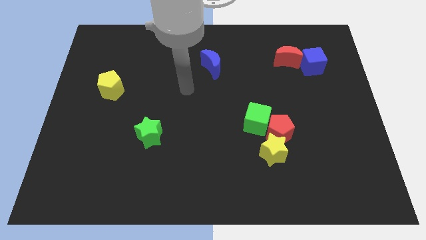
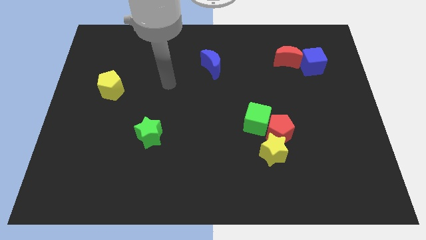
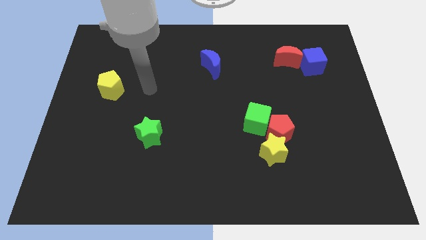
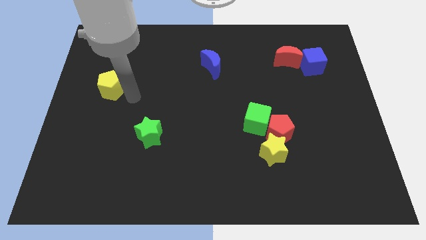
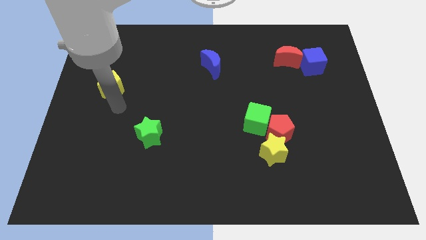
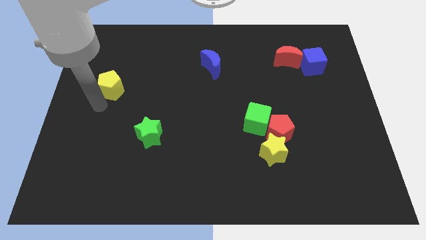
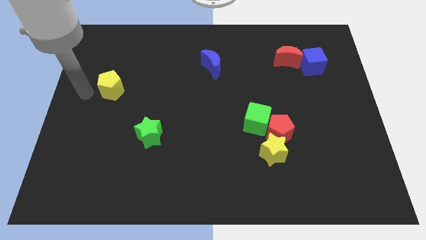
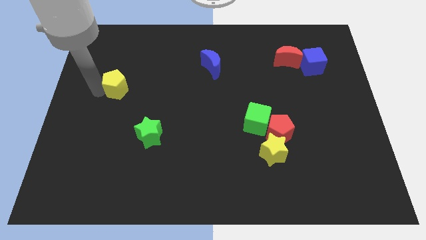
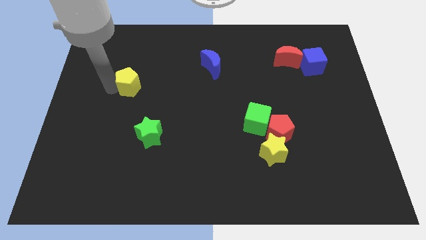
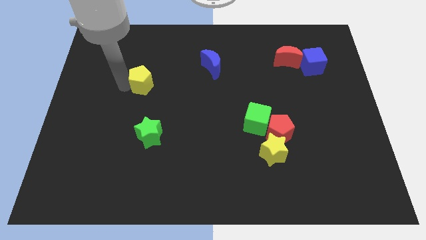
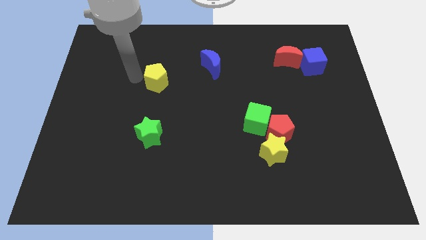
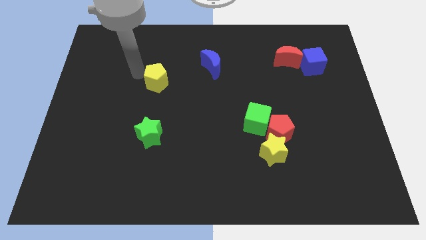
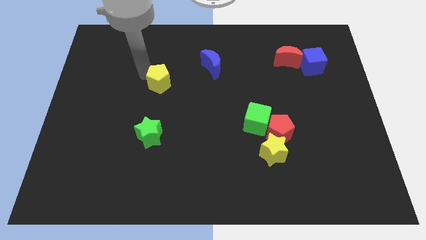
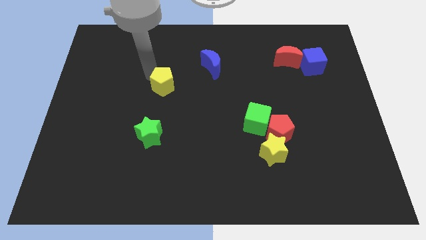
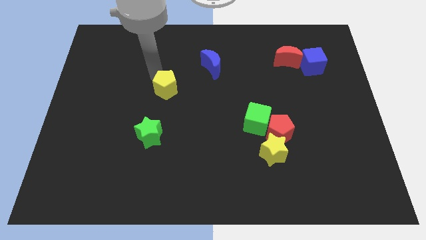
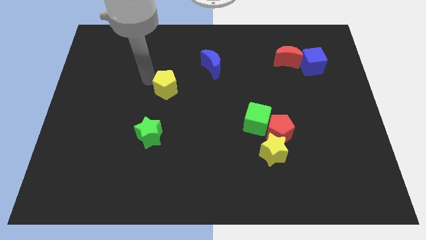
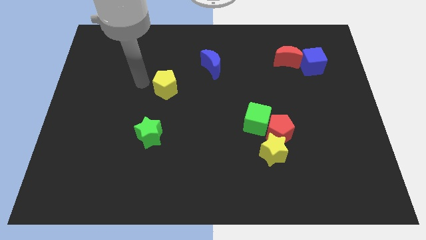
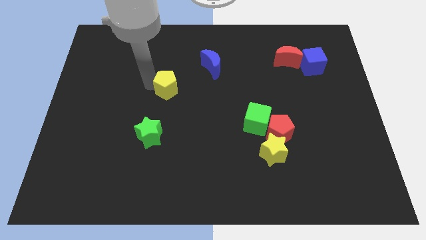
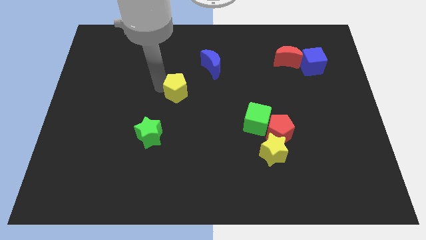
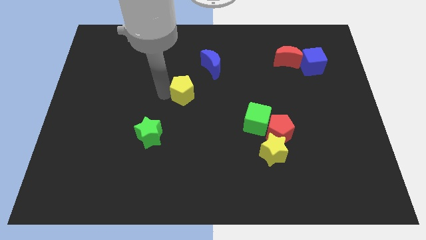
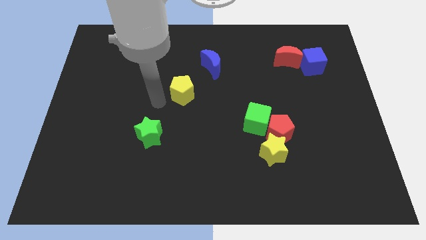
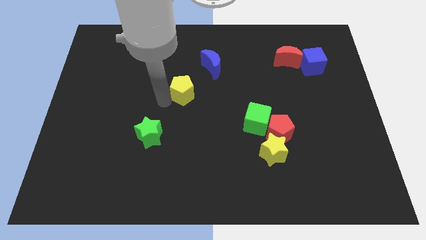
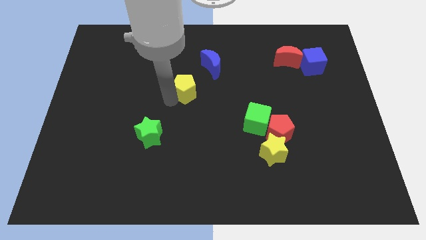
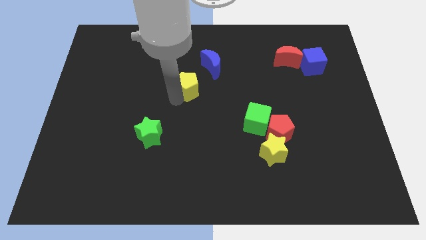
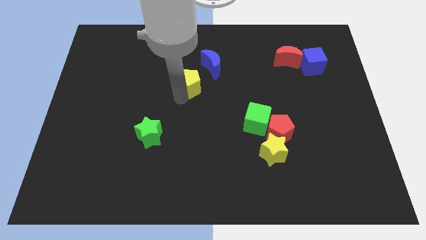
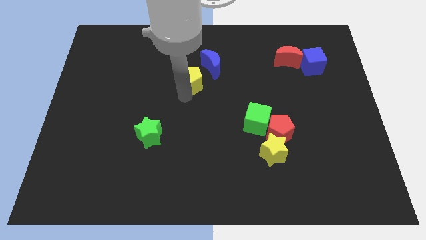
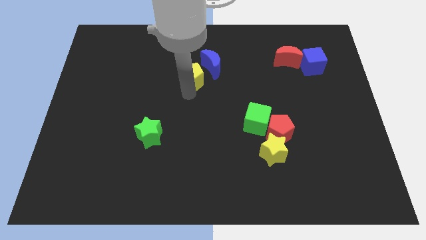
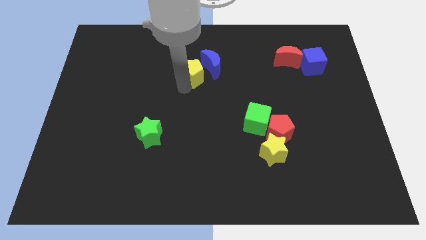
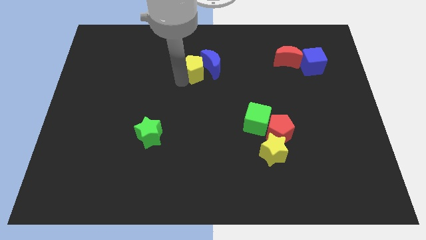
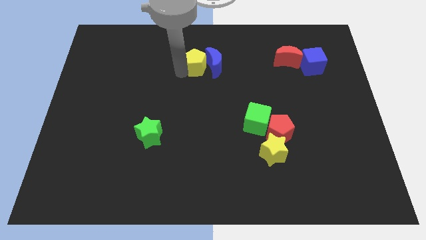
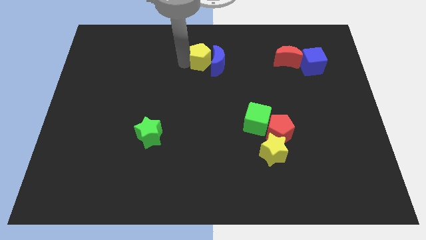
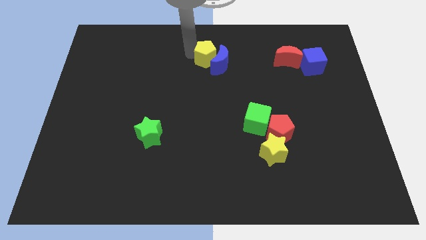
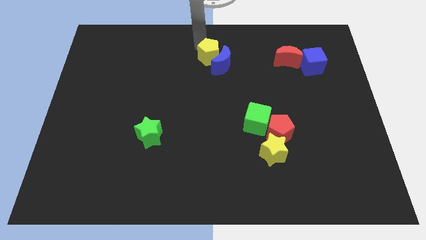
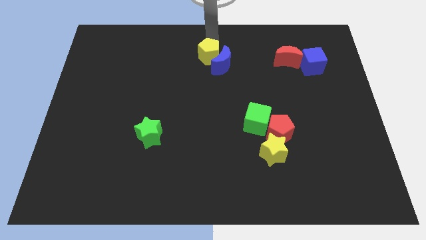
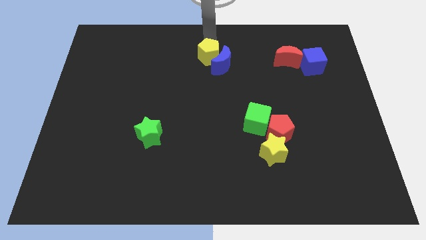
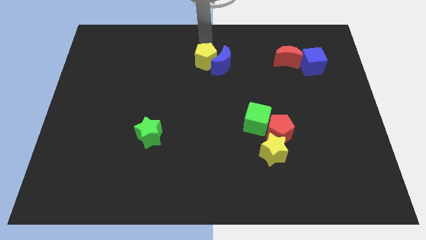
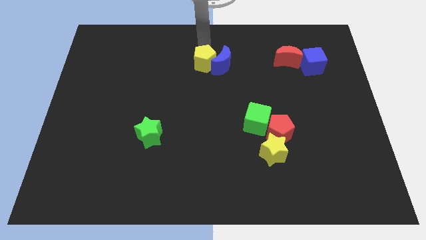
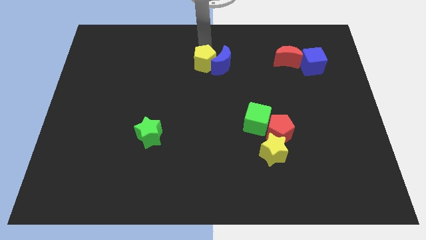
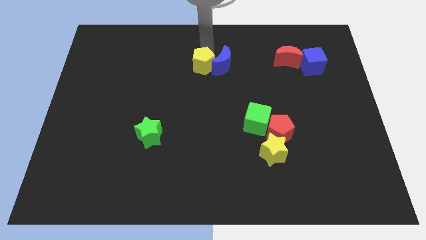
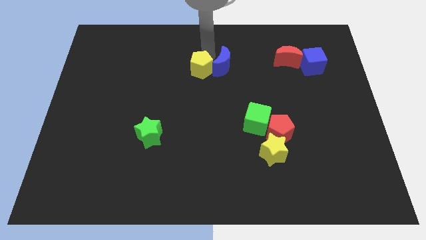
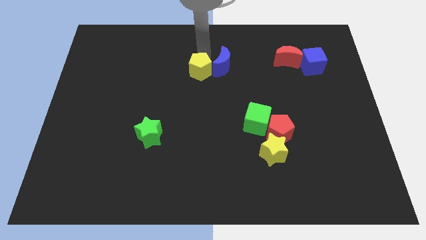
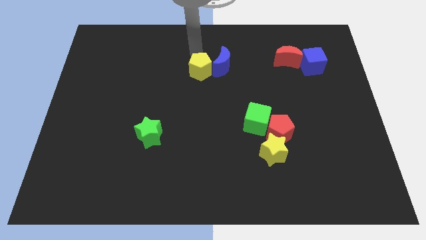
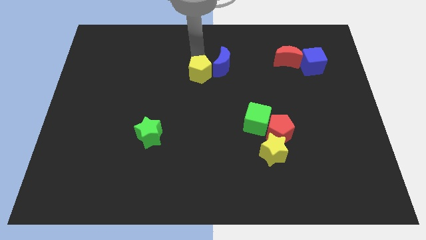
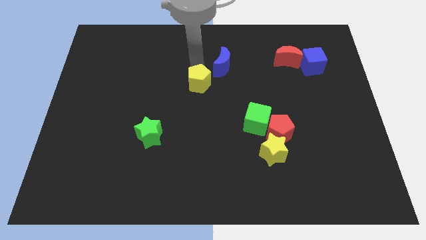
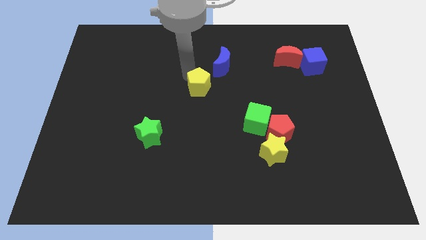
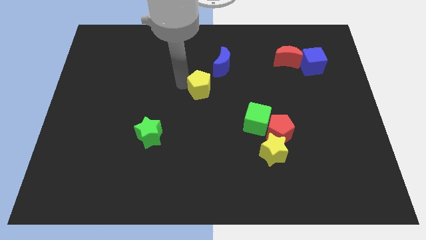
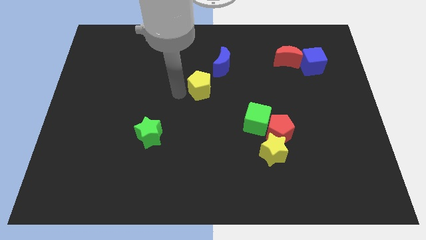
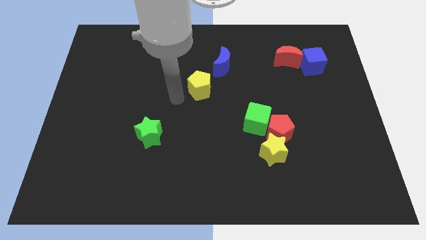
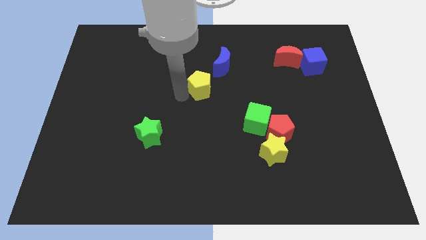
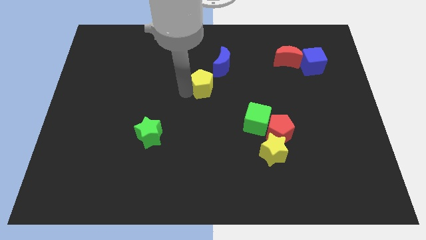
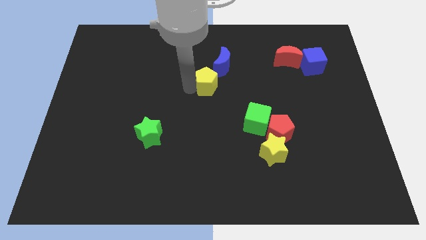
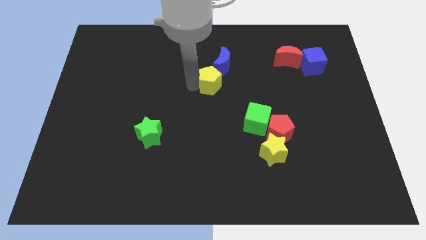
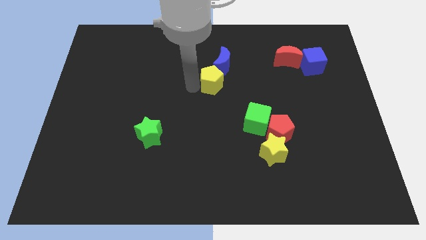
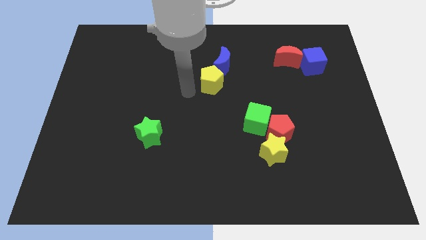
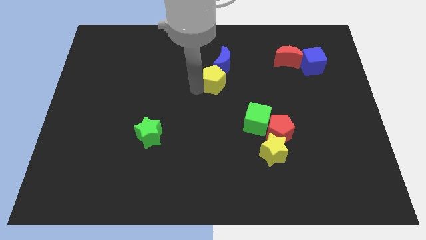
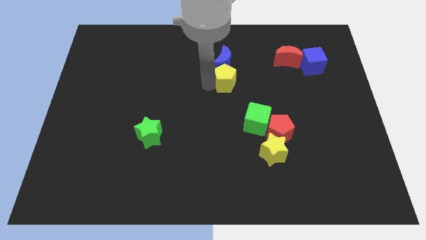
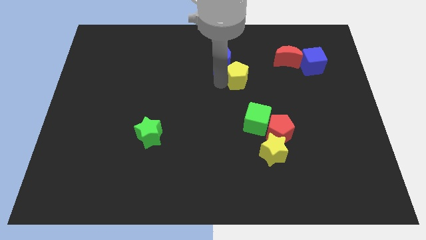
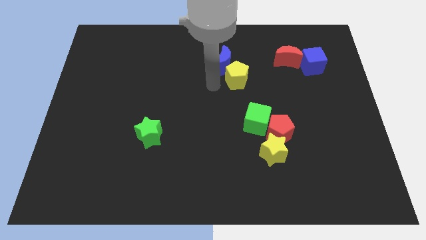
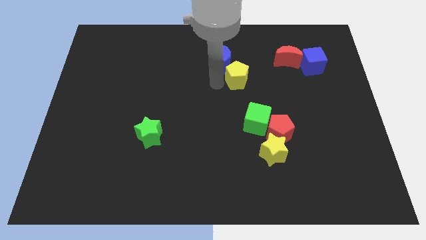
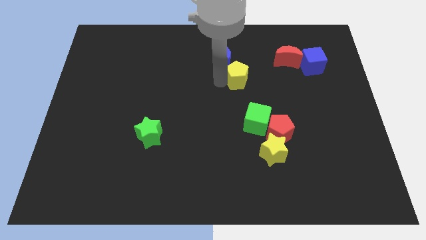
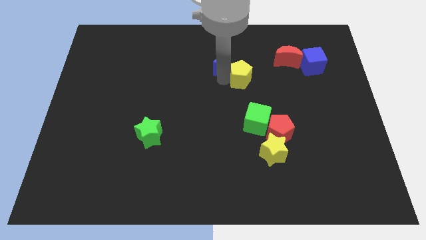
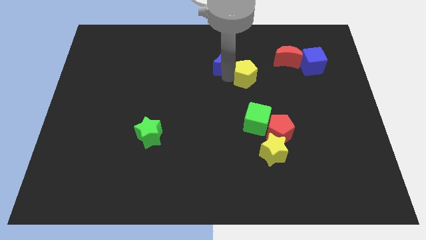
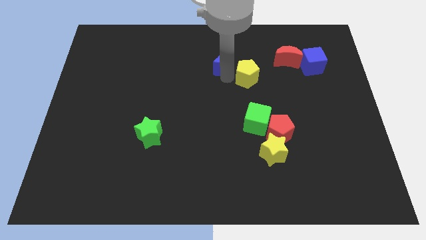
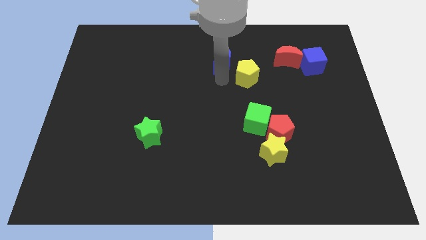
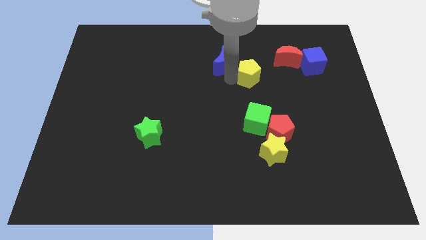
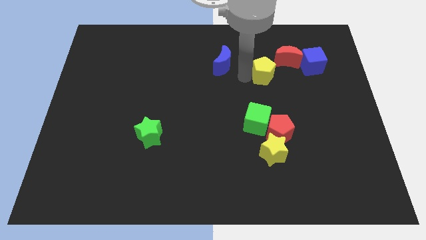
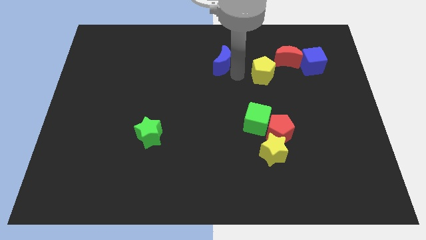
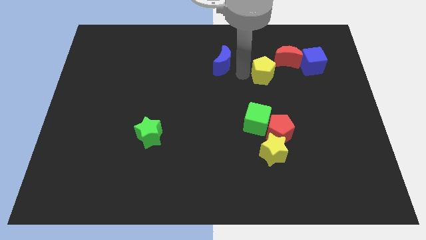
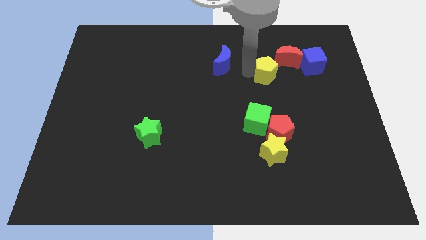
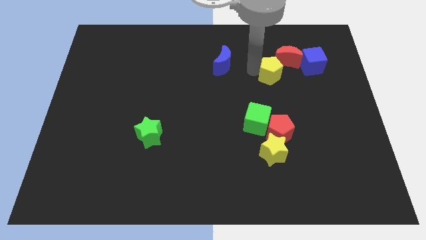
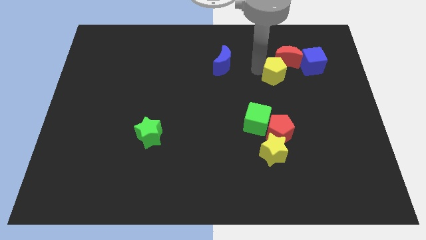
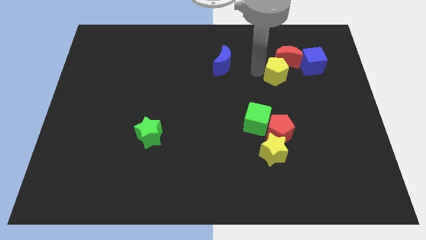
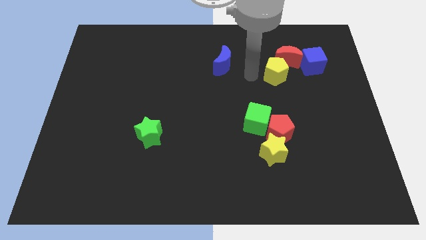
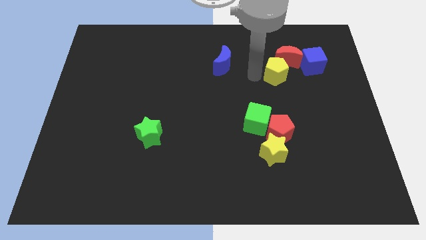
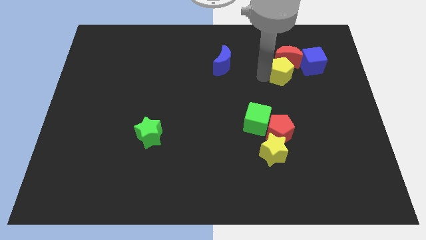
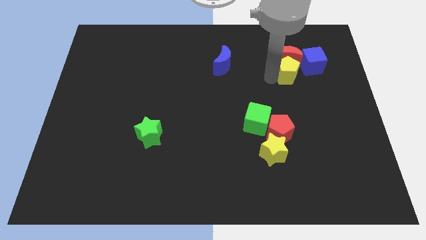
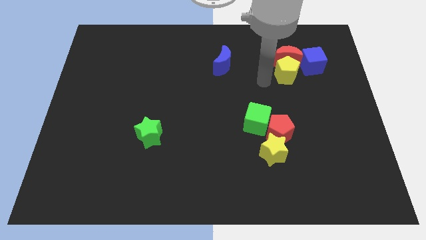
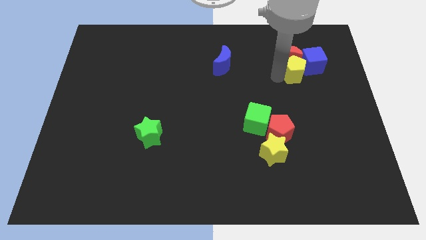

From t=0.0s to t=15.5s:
move the yellow pentagon to the blue cube
